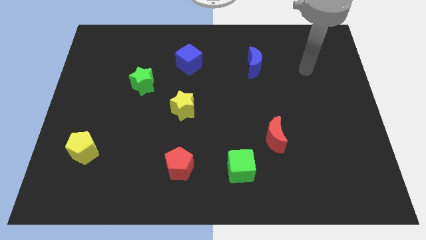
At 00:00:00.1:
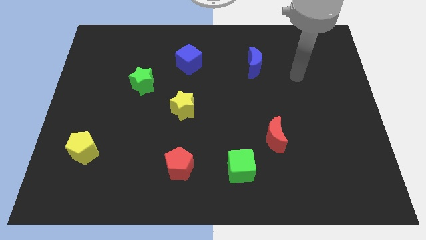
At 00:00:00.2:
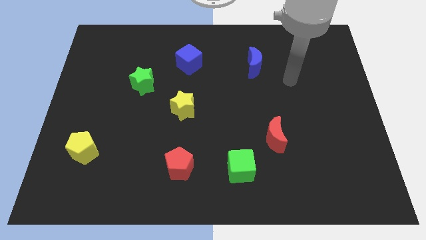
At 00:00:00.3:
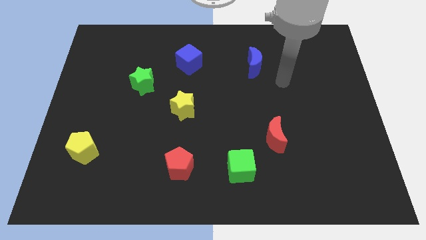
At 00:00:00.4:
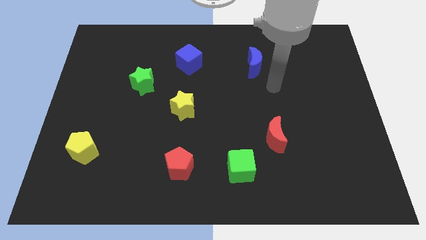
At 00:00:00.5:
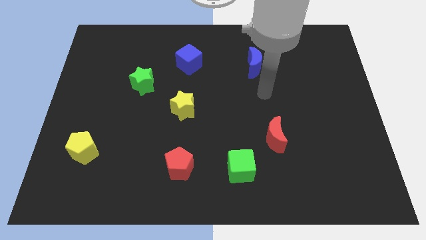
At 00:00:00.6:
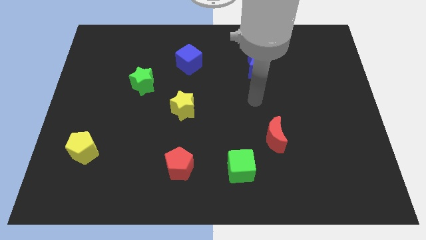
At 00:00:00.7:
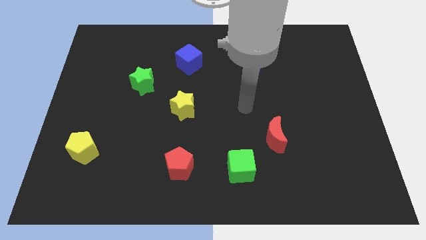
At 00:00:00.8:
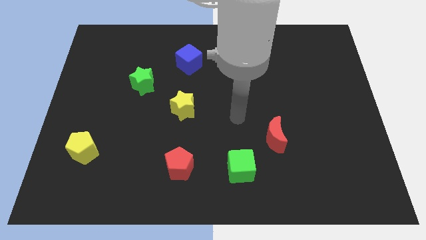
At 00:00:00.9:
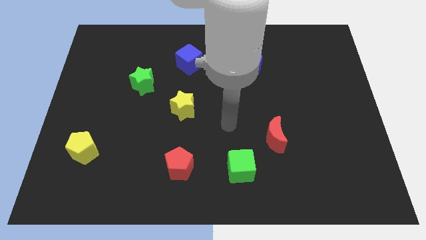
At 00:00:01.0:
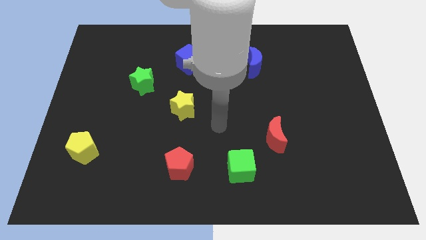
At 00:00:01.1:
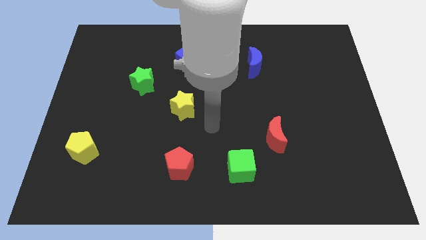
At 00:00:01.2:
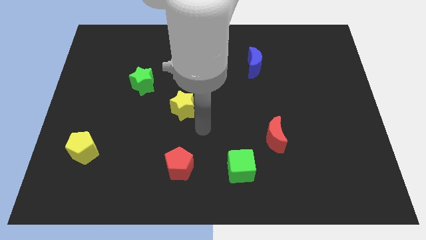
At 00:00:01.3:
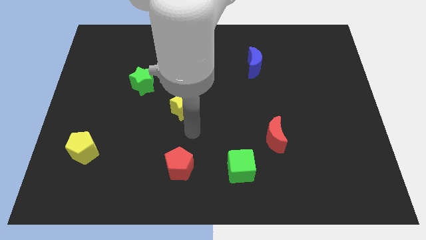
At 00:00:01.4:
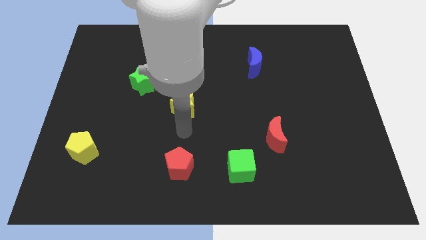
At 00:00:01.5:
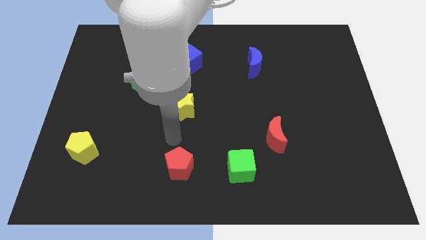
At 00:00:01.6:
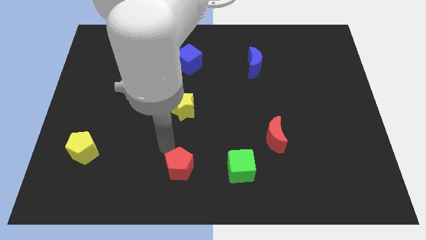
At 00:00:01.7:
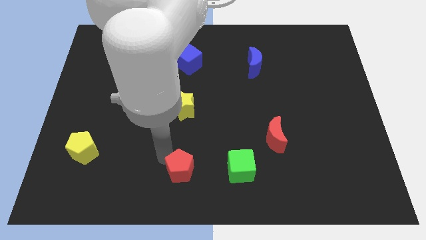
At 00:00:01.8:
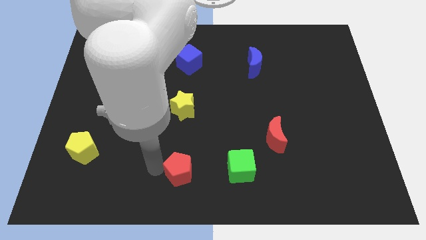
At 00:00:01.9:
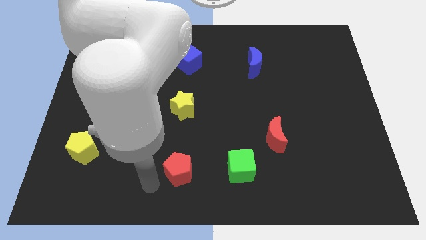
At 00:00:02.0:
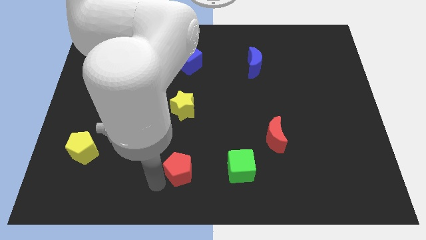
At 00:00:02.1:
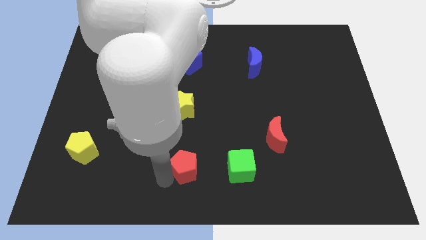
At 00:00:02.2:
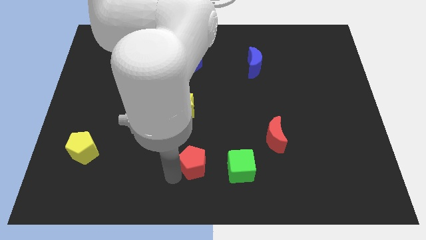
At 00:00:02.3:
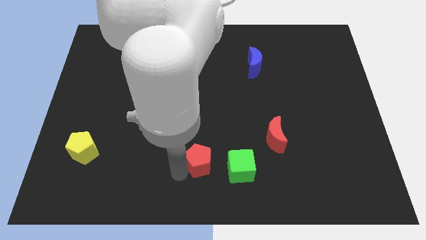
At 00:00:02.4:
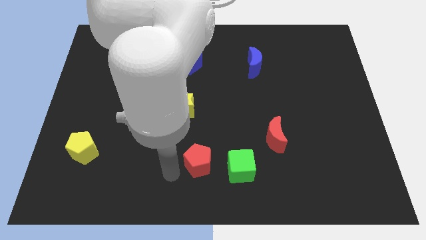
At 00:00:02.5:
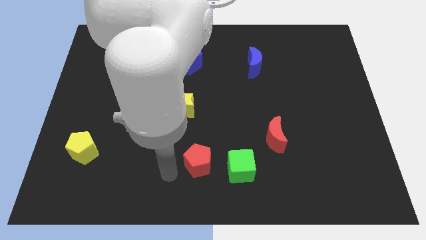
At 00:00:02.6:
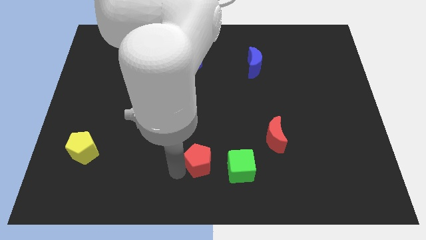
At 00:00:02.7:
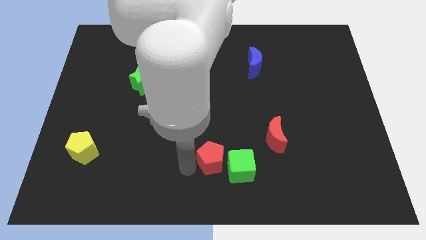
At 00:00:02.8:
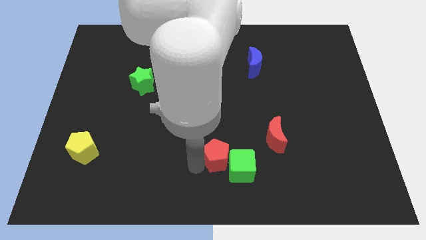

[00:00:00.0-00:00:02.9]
slightly move the red pentagon to the right

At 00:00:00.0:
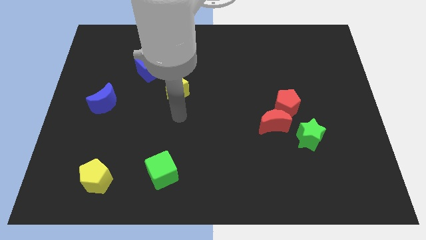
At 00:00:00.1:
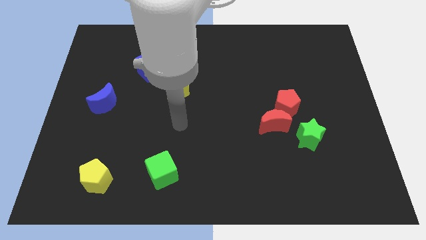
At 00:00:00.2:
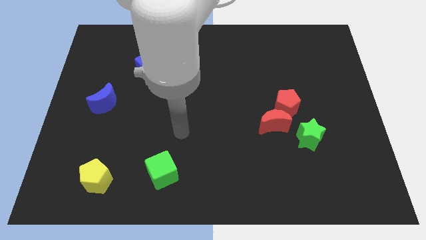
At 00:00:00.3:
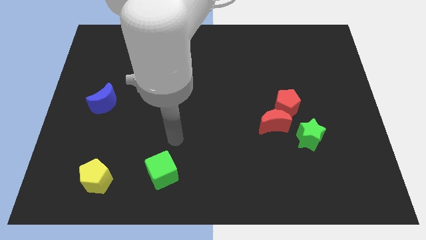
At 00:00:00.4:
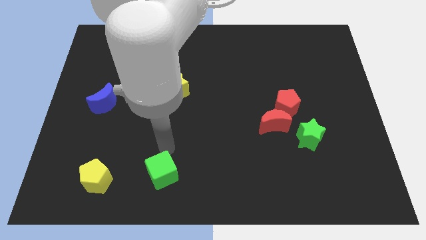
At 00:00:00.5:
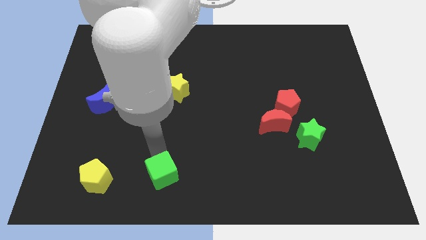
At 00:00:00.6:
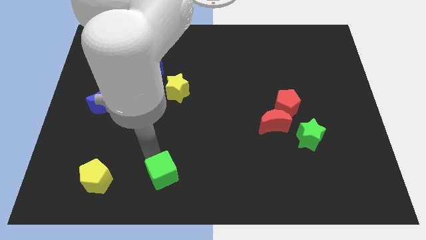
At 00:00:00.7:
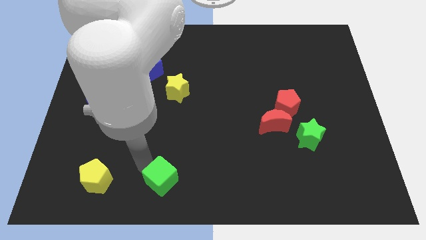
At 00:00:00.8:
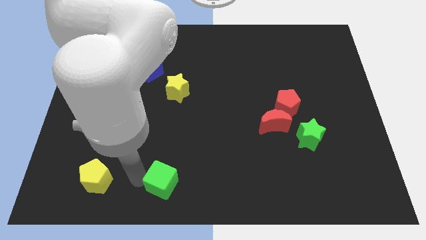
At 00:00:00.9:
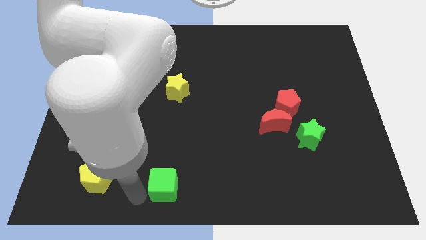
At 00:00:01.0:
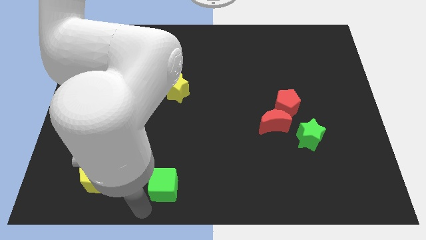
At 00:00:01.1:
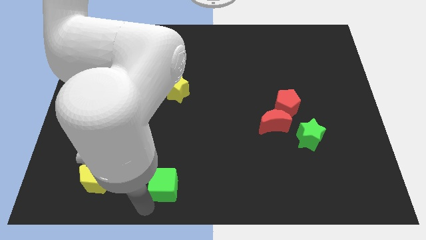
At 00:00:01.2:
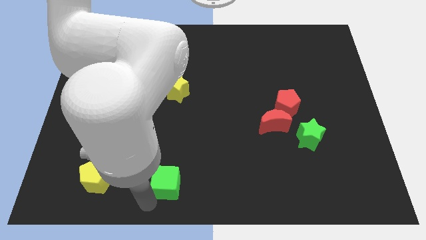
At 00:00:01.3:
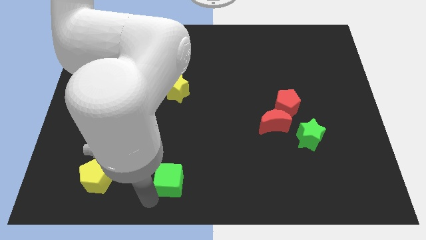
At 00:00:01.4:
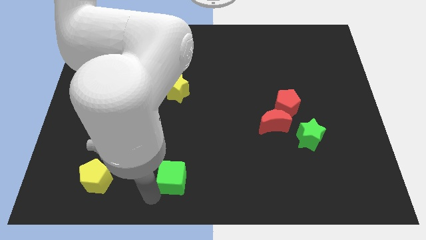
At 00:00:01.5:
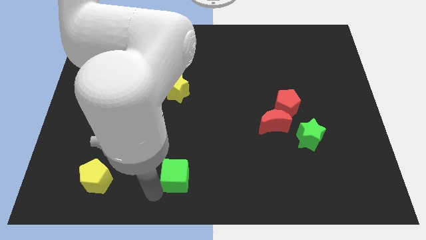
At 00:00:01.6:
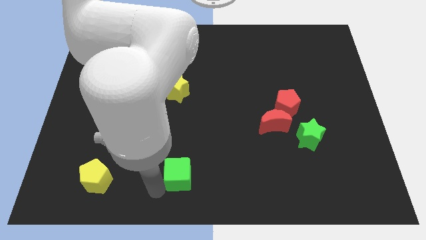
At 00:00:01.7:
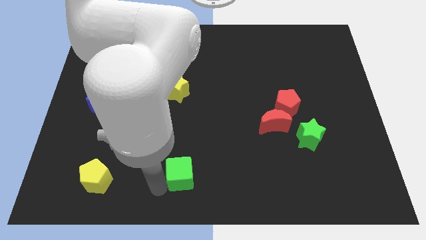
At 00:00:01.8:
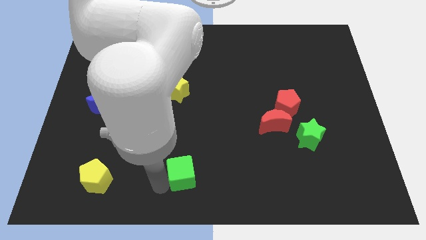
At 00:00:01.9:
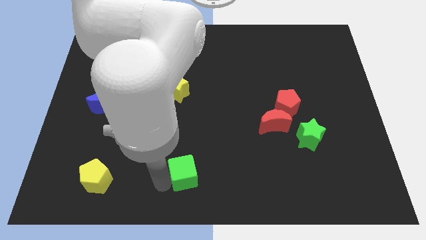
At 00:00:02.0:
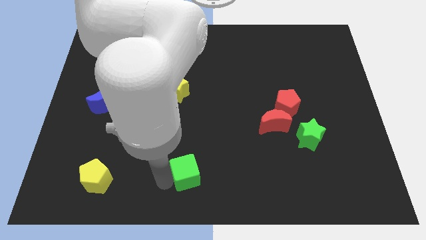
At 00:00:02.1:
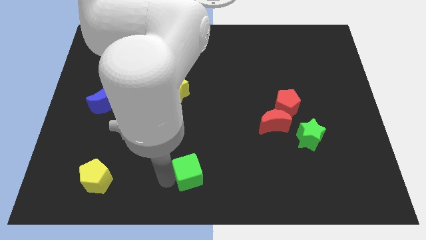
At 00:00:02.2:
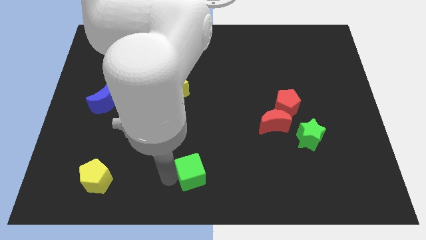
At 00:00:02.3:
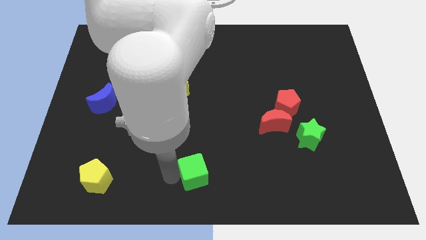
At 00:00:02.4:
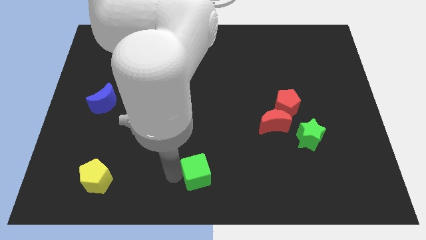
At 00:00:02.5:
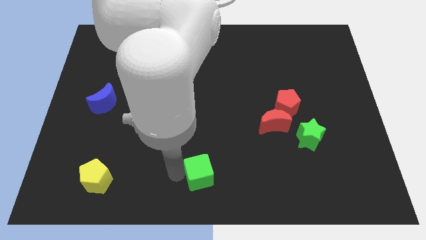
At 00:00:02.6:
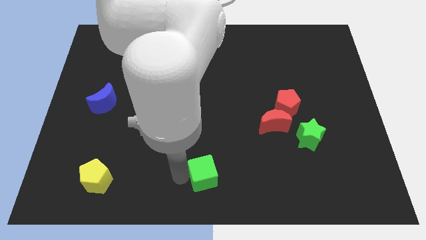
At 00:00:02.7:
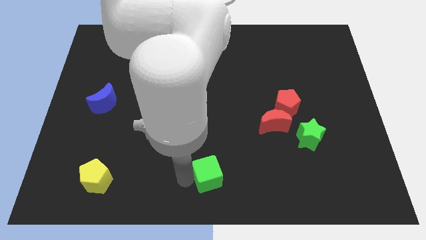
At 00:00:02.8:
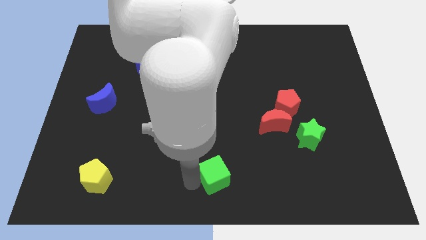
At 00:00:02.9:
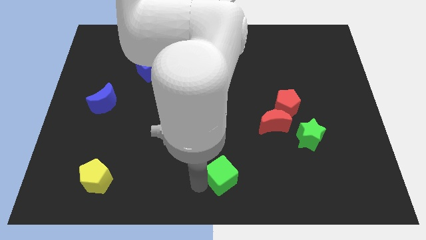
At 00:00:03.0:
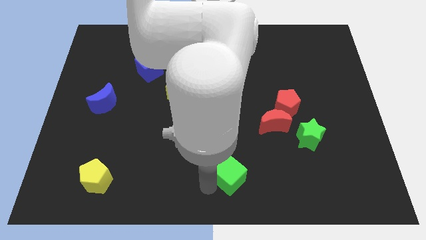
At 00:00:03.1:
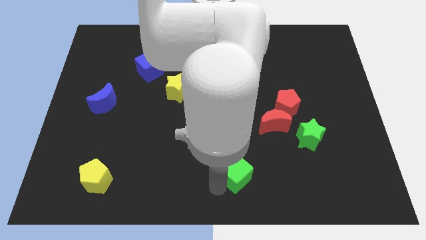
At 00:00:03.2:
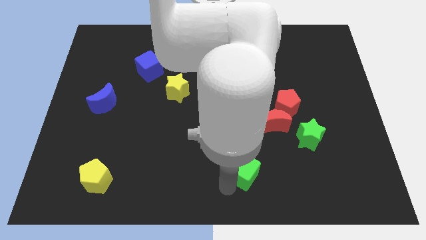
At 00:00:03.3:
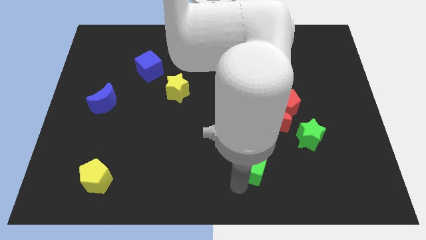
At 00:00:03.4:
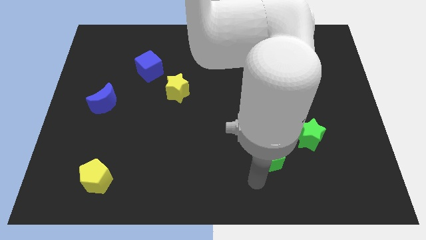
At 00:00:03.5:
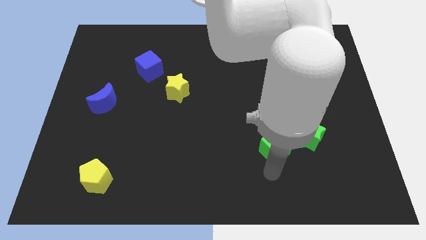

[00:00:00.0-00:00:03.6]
slide the green cube a bit up and then to the right

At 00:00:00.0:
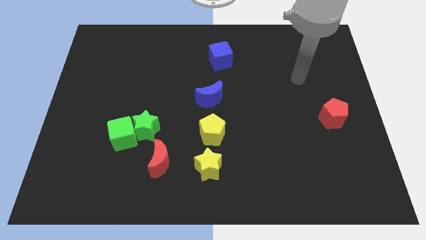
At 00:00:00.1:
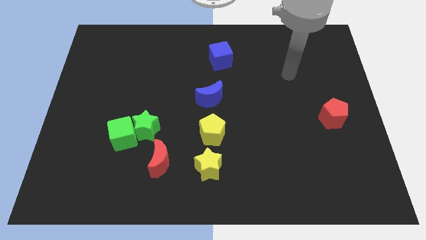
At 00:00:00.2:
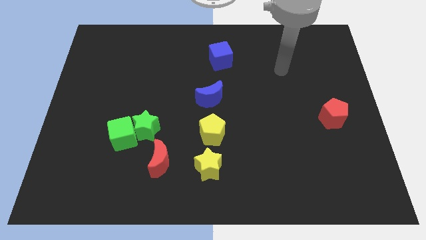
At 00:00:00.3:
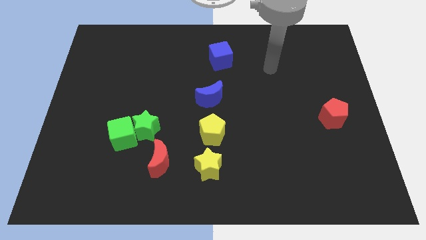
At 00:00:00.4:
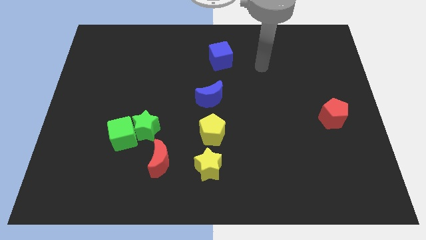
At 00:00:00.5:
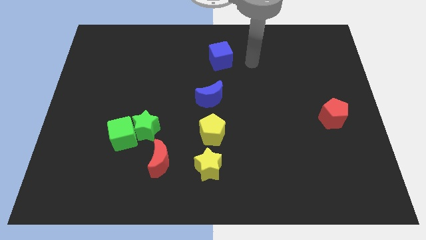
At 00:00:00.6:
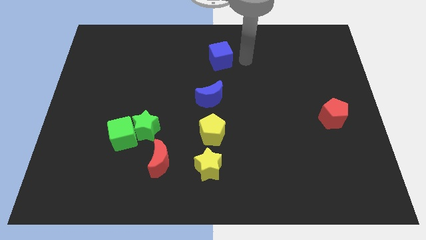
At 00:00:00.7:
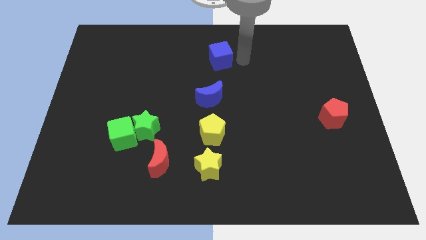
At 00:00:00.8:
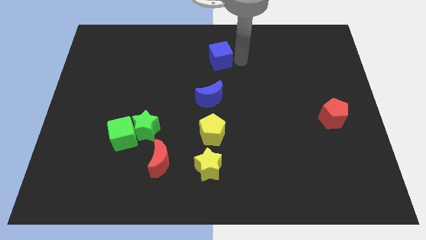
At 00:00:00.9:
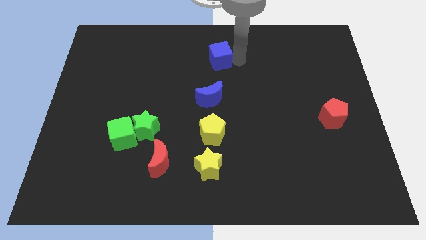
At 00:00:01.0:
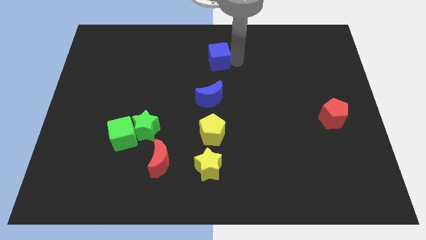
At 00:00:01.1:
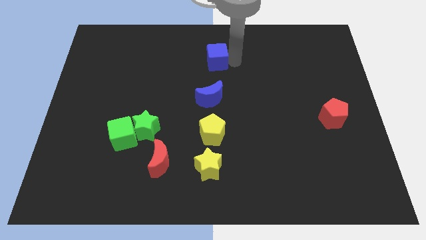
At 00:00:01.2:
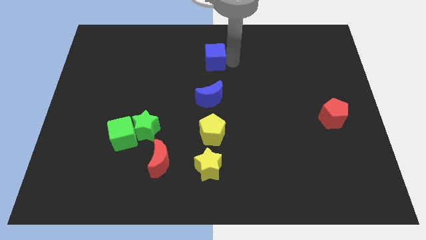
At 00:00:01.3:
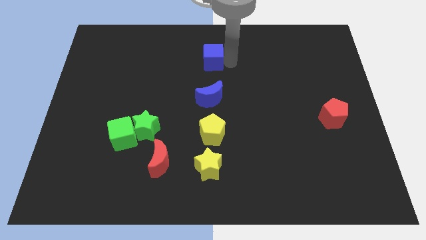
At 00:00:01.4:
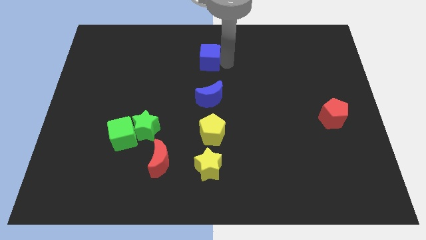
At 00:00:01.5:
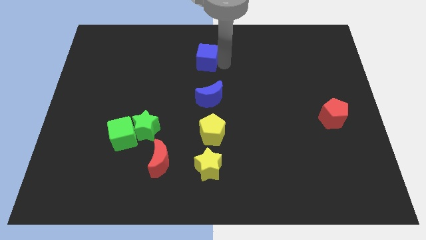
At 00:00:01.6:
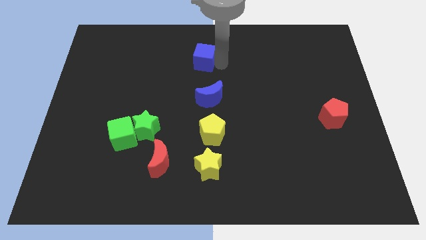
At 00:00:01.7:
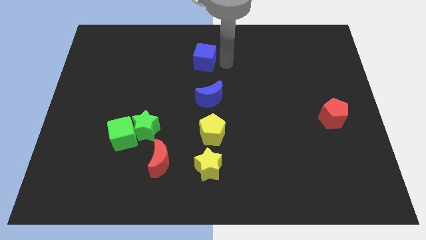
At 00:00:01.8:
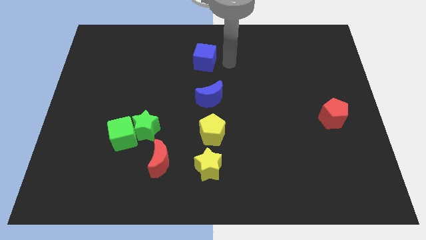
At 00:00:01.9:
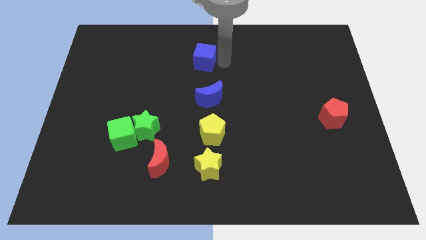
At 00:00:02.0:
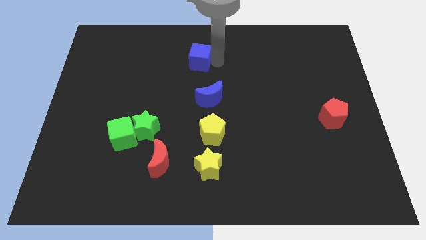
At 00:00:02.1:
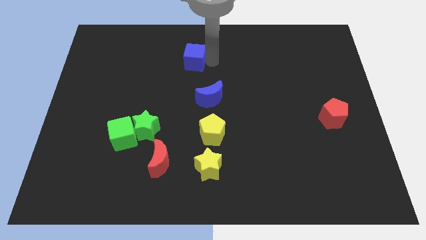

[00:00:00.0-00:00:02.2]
push the blue cube to the left slightly
